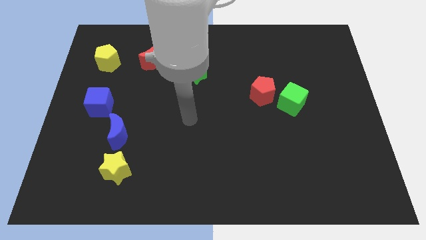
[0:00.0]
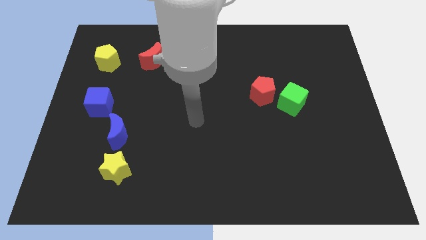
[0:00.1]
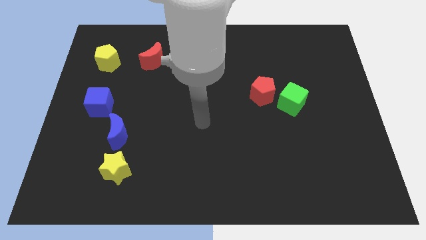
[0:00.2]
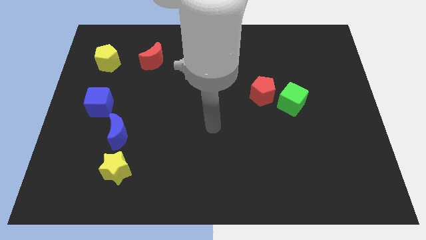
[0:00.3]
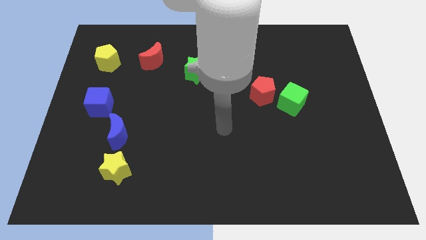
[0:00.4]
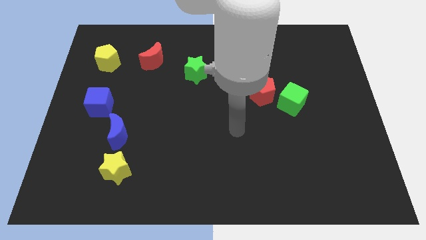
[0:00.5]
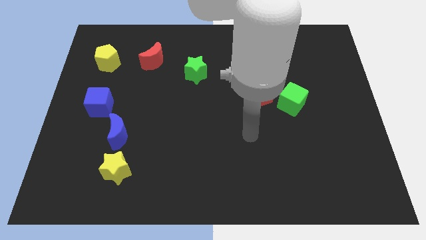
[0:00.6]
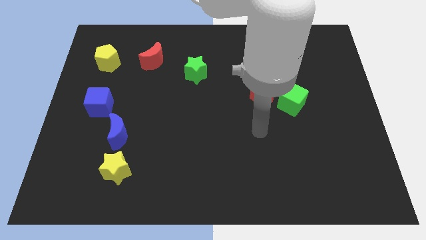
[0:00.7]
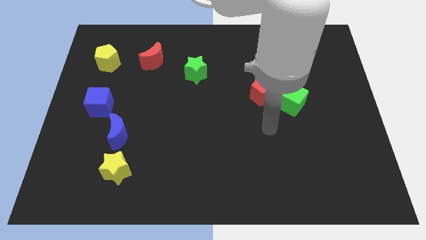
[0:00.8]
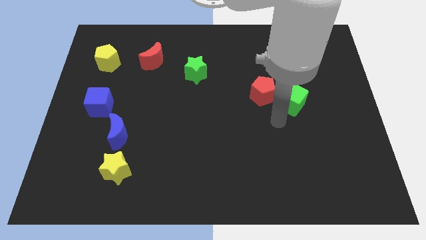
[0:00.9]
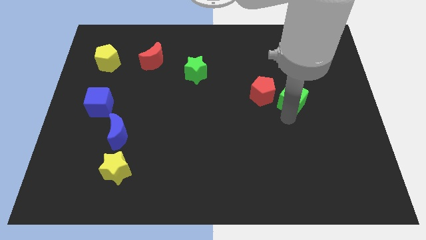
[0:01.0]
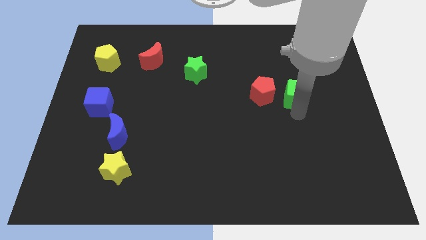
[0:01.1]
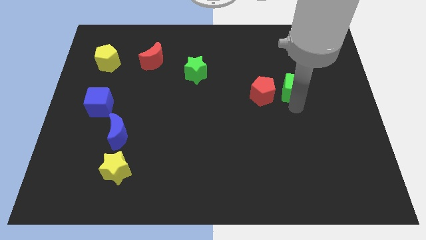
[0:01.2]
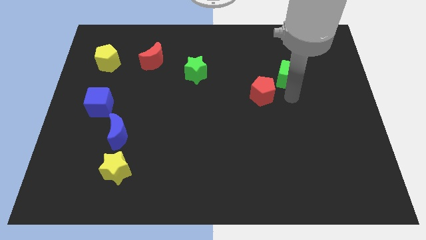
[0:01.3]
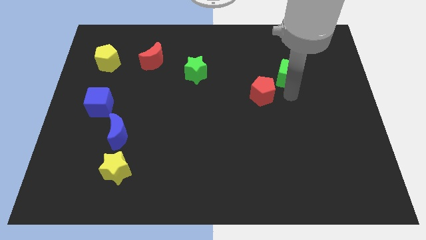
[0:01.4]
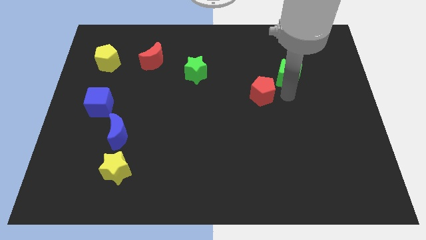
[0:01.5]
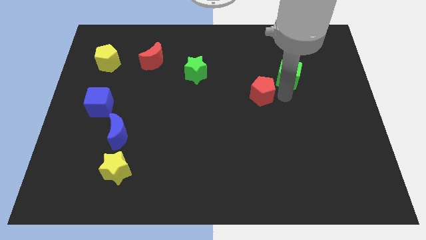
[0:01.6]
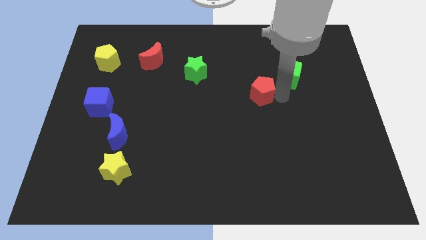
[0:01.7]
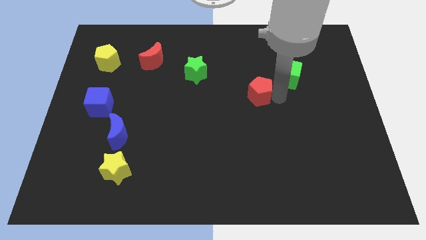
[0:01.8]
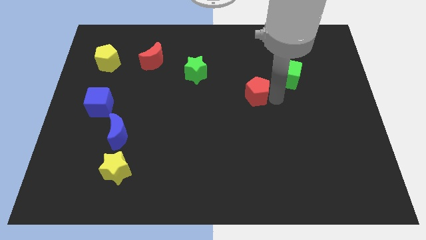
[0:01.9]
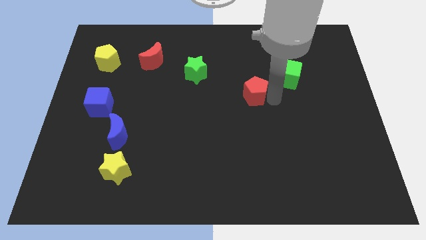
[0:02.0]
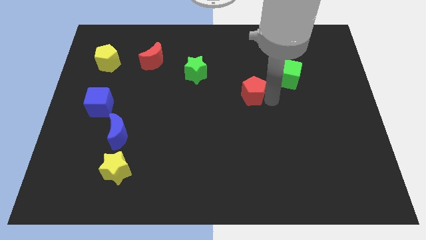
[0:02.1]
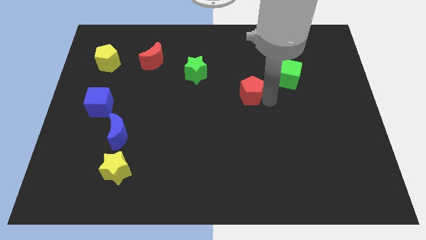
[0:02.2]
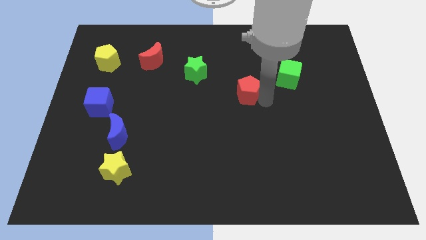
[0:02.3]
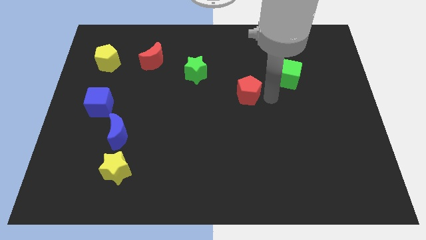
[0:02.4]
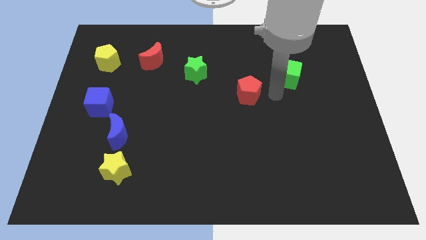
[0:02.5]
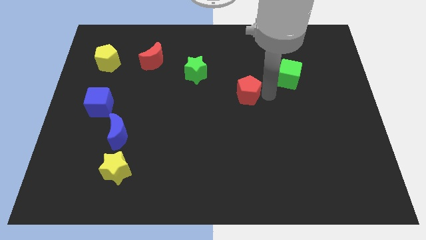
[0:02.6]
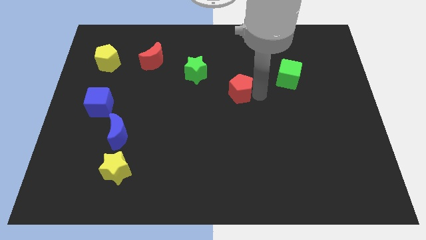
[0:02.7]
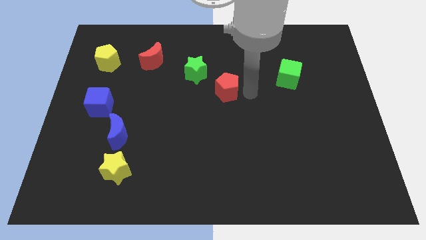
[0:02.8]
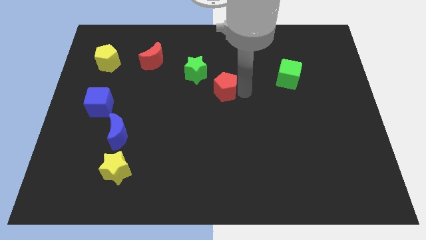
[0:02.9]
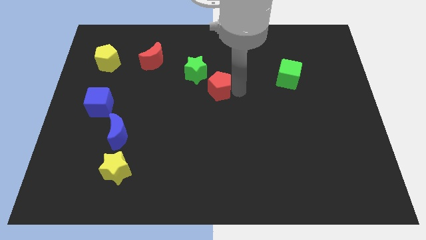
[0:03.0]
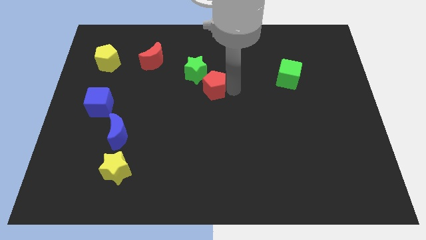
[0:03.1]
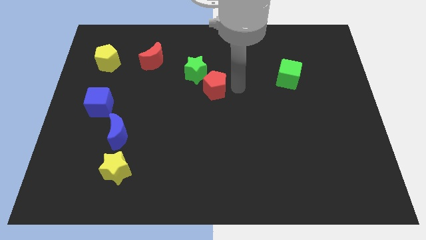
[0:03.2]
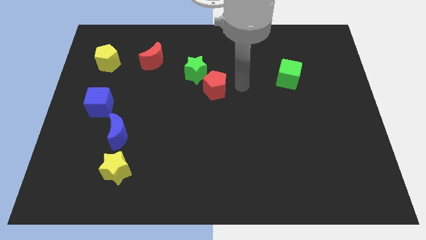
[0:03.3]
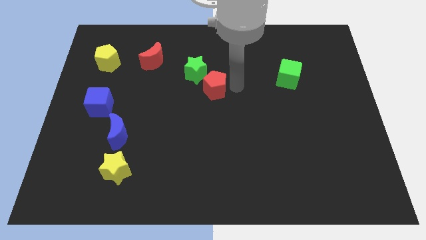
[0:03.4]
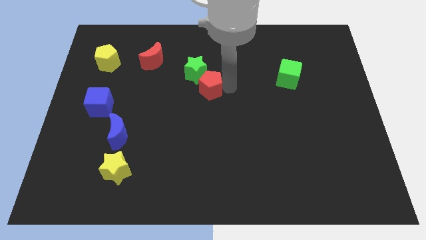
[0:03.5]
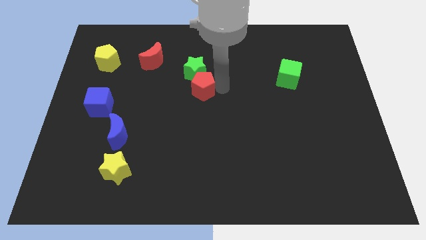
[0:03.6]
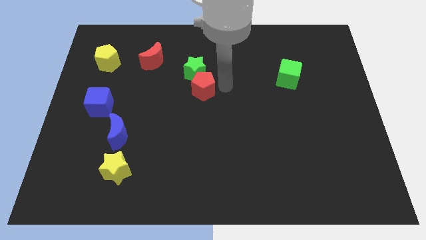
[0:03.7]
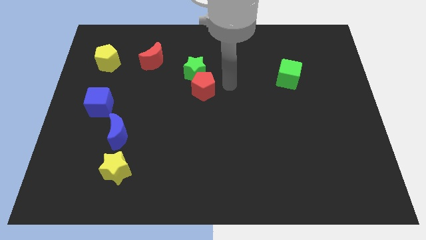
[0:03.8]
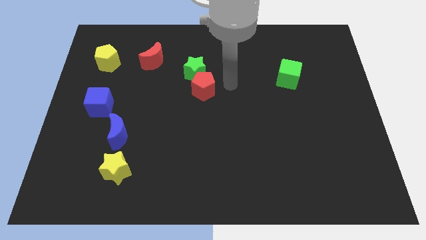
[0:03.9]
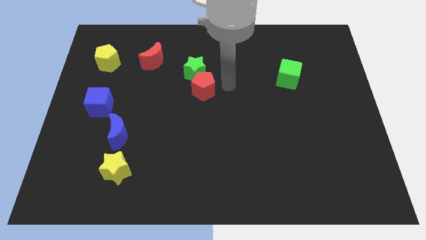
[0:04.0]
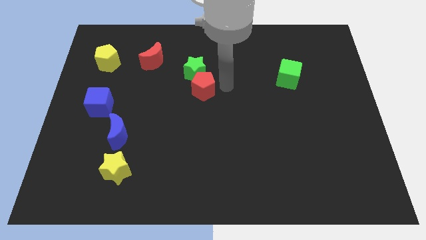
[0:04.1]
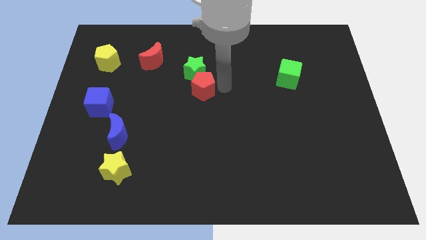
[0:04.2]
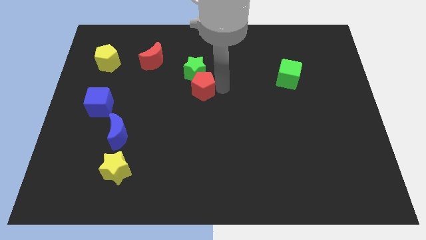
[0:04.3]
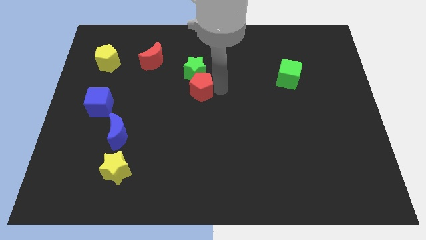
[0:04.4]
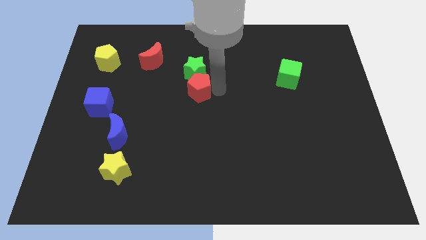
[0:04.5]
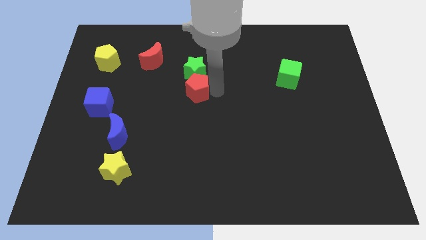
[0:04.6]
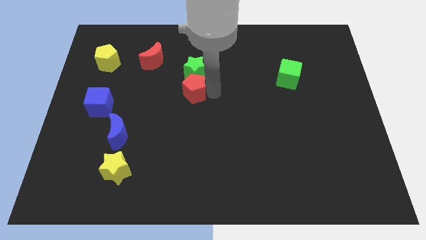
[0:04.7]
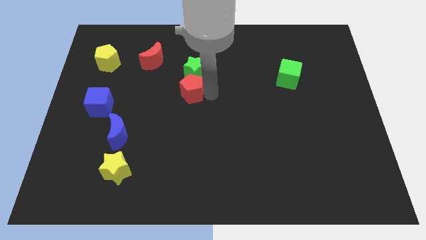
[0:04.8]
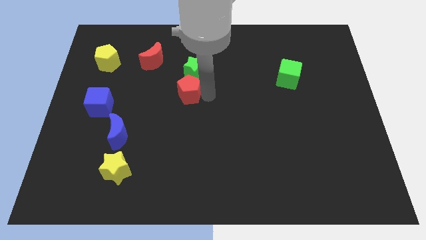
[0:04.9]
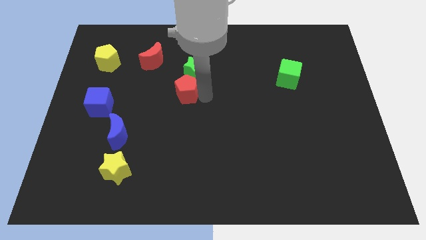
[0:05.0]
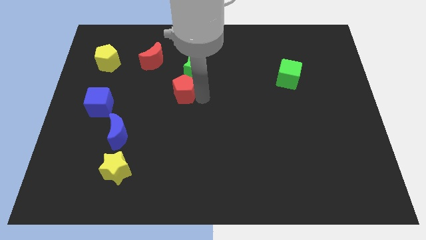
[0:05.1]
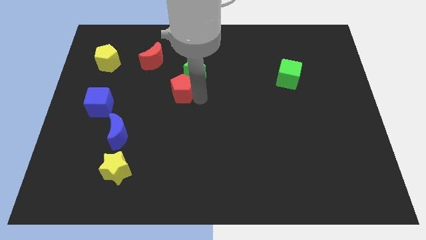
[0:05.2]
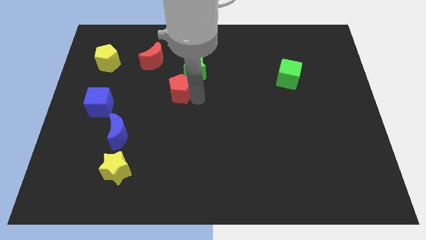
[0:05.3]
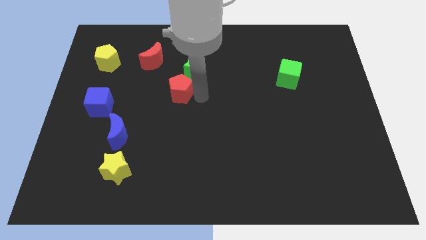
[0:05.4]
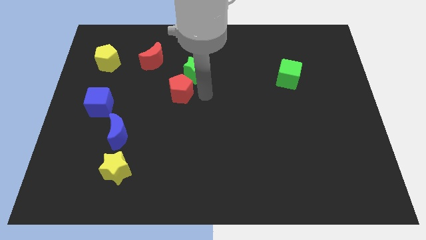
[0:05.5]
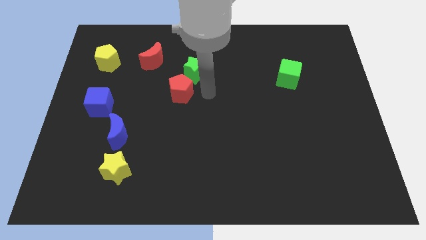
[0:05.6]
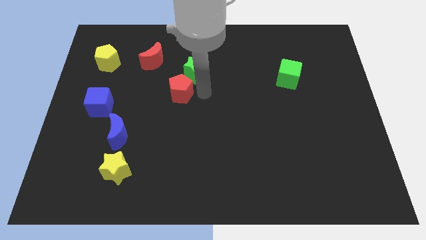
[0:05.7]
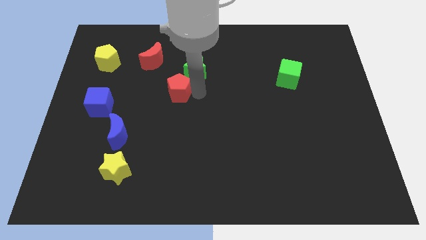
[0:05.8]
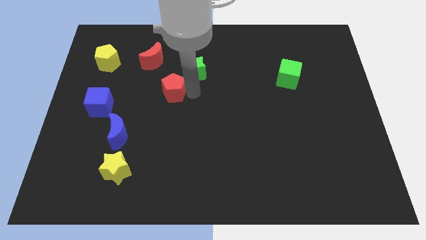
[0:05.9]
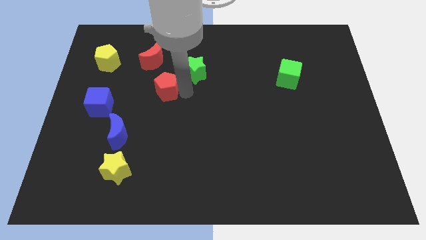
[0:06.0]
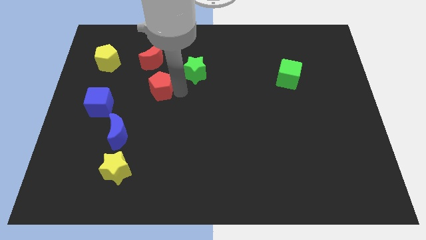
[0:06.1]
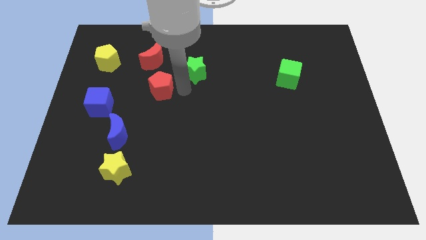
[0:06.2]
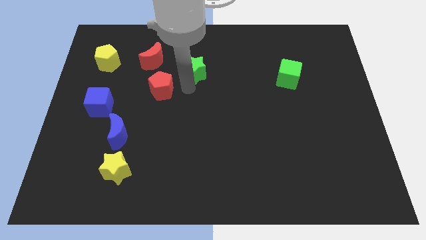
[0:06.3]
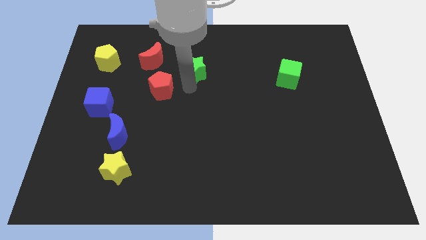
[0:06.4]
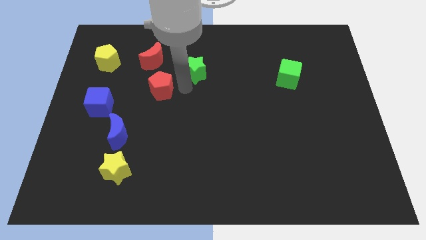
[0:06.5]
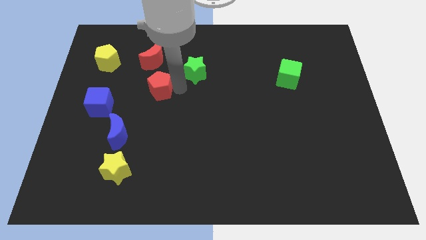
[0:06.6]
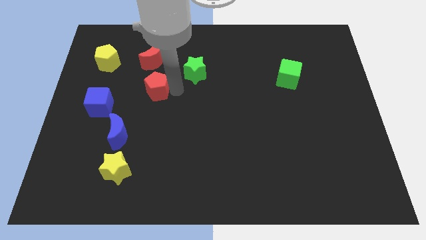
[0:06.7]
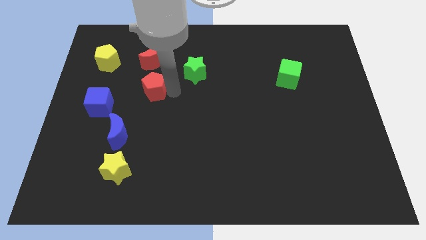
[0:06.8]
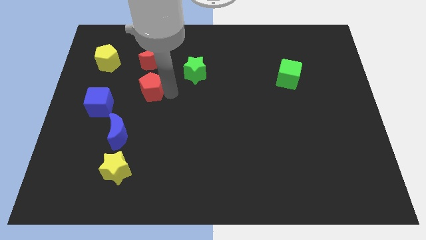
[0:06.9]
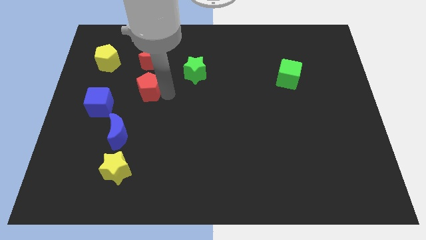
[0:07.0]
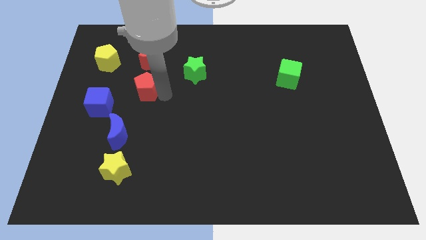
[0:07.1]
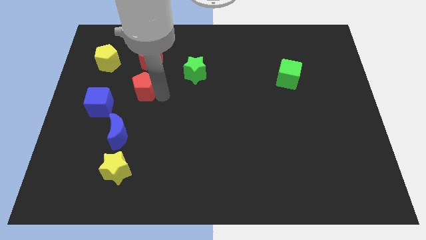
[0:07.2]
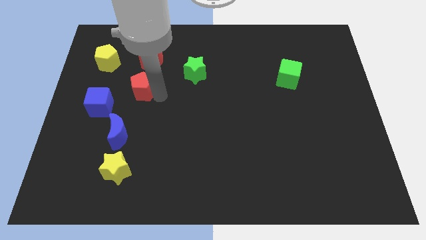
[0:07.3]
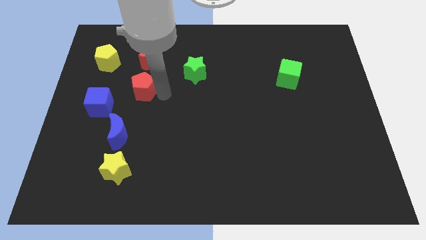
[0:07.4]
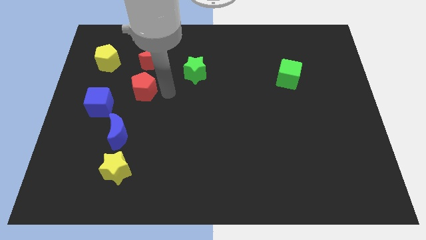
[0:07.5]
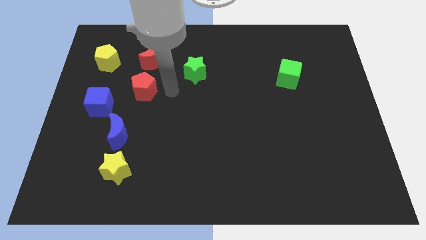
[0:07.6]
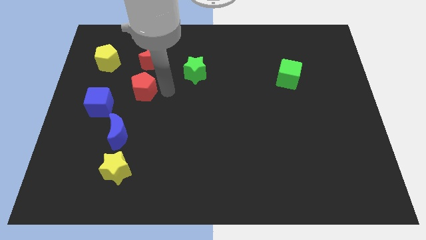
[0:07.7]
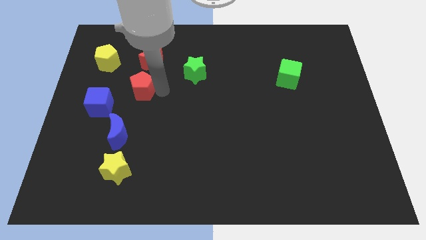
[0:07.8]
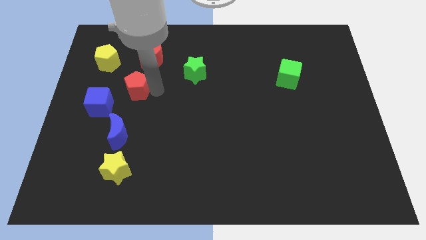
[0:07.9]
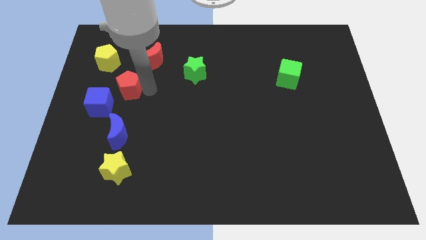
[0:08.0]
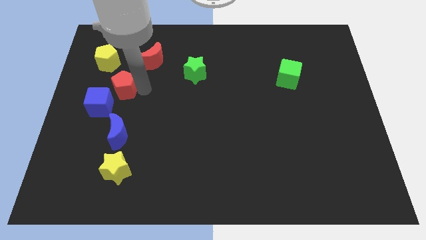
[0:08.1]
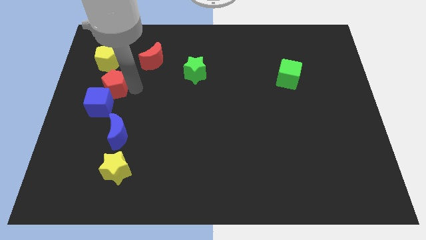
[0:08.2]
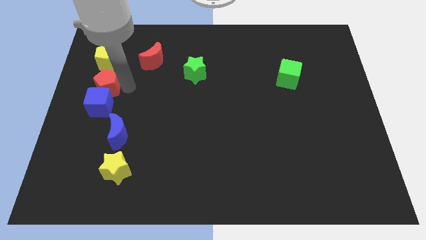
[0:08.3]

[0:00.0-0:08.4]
move the red pentagon to the center left
